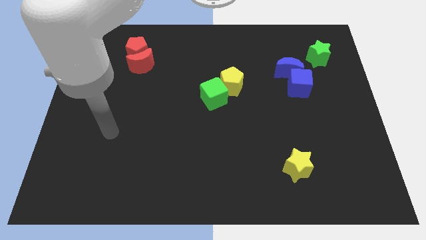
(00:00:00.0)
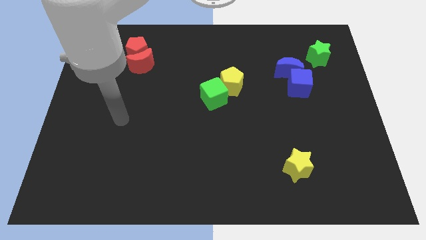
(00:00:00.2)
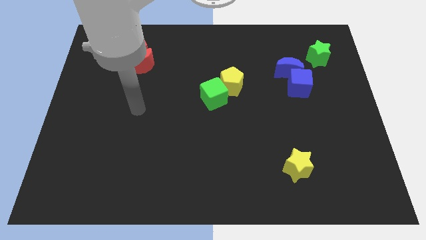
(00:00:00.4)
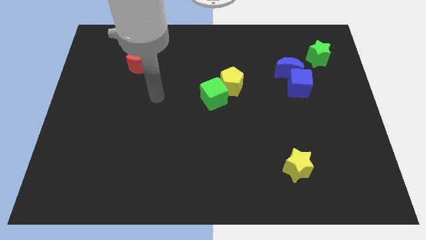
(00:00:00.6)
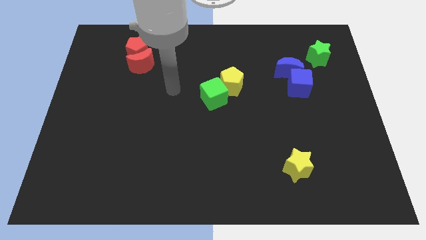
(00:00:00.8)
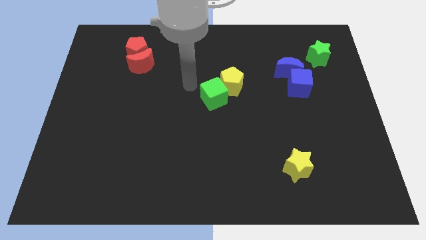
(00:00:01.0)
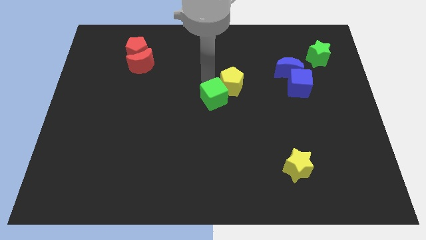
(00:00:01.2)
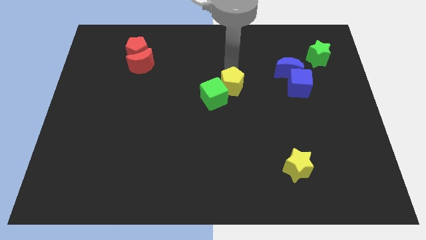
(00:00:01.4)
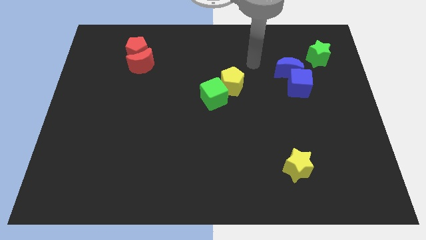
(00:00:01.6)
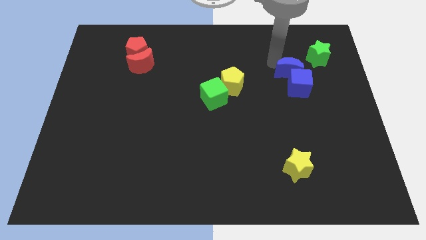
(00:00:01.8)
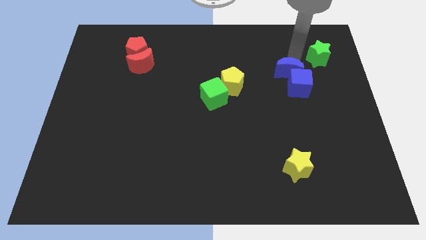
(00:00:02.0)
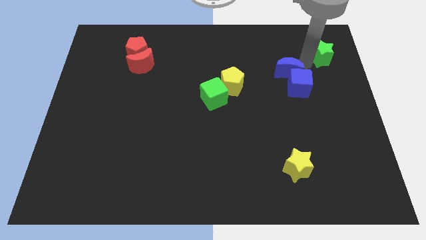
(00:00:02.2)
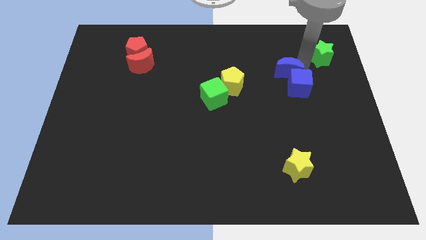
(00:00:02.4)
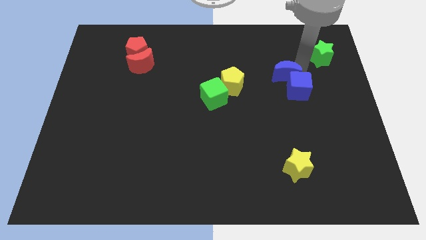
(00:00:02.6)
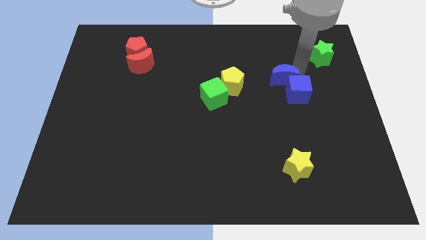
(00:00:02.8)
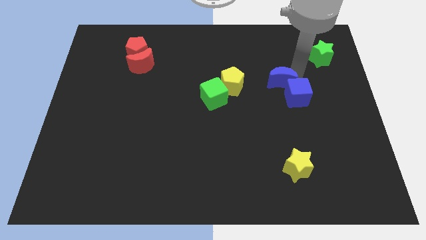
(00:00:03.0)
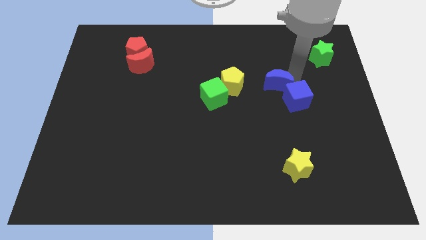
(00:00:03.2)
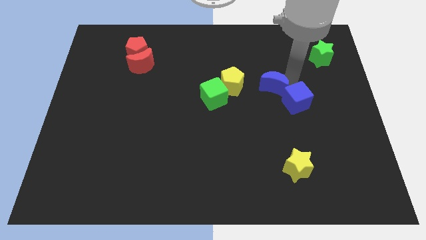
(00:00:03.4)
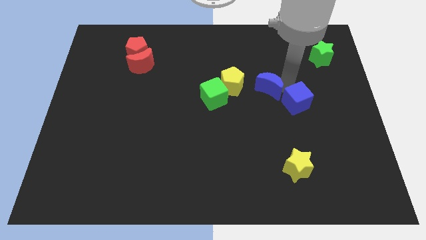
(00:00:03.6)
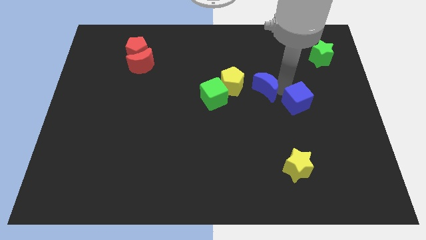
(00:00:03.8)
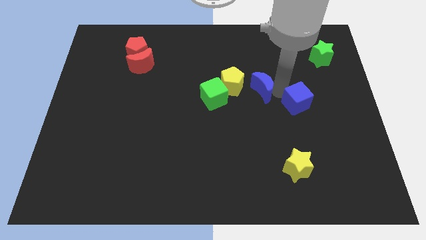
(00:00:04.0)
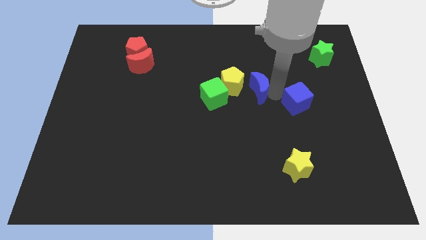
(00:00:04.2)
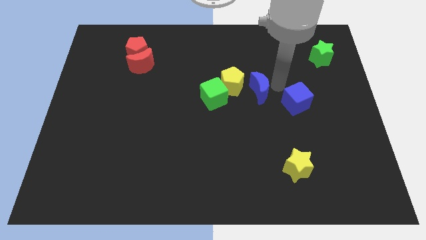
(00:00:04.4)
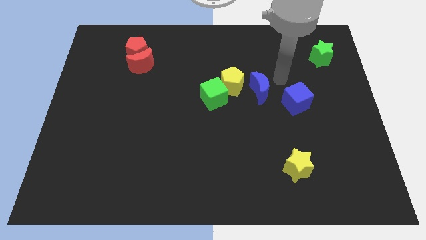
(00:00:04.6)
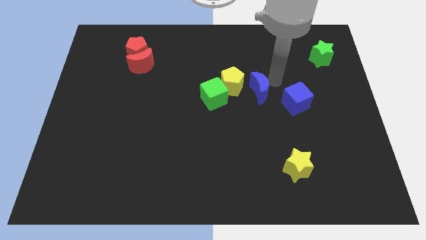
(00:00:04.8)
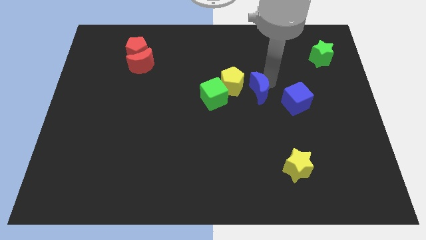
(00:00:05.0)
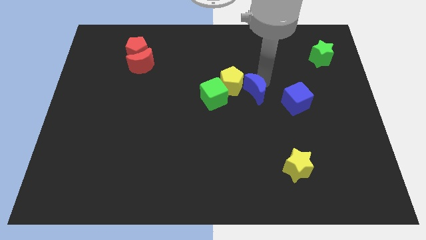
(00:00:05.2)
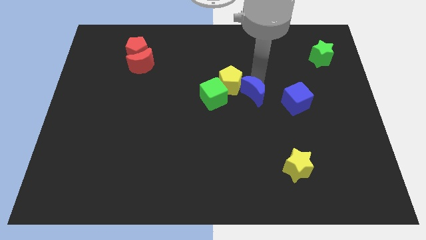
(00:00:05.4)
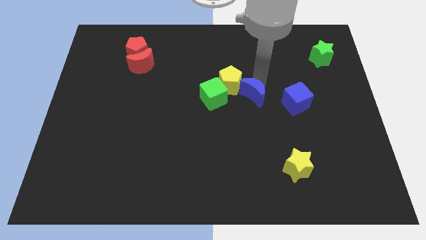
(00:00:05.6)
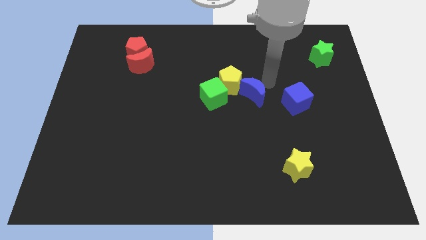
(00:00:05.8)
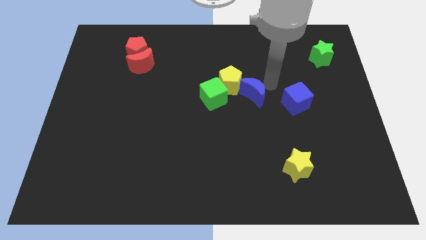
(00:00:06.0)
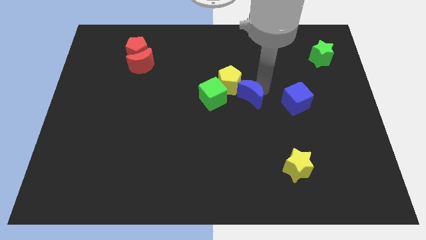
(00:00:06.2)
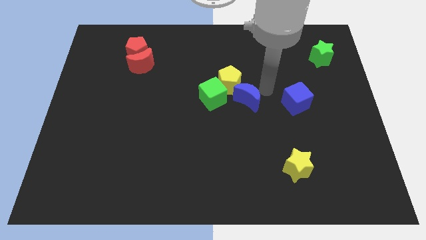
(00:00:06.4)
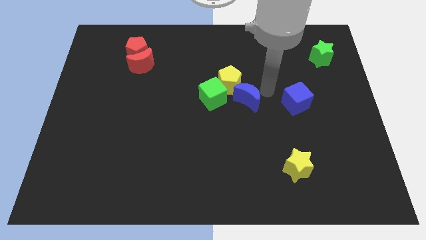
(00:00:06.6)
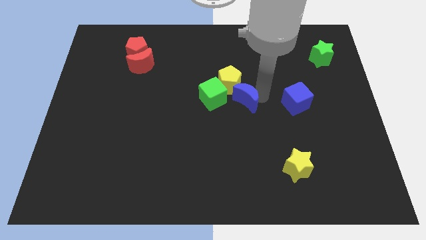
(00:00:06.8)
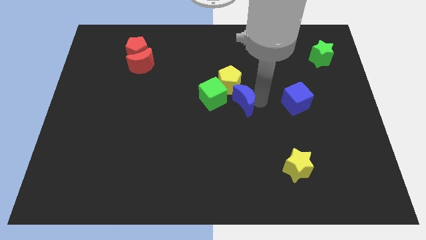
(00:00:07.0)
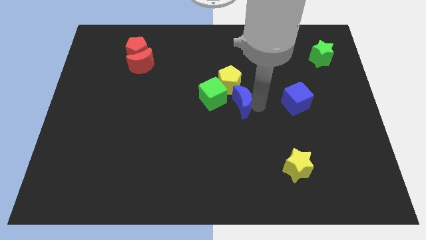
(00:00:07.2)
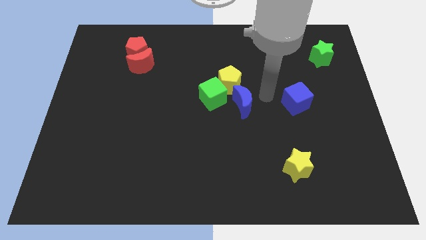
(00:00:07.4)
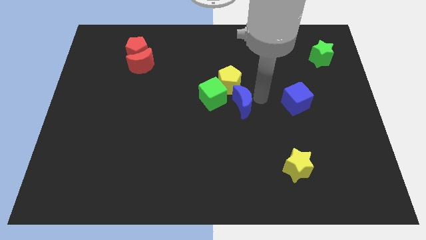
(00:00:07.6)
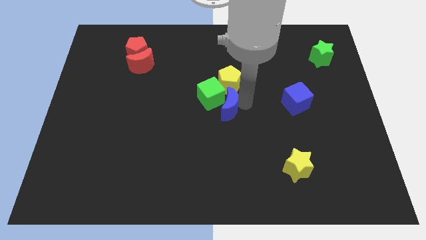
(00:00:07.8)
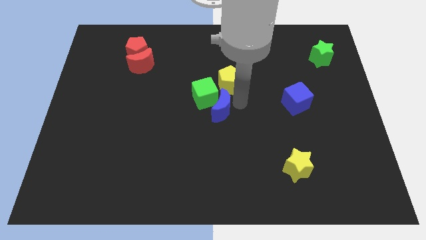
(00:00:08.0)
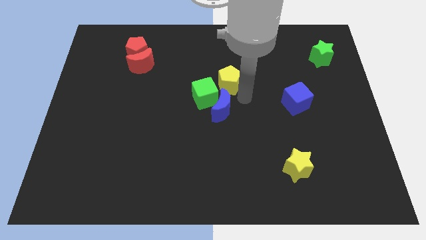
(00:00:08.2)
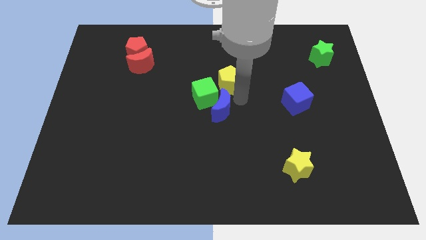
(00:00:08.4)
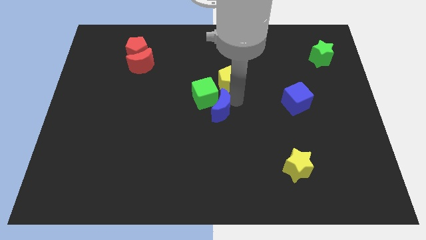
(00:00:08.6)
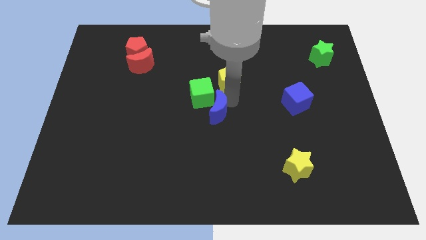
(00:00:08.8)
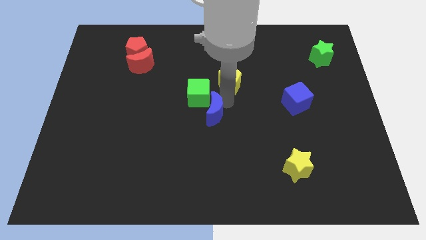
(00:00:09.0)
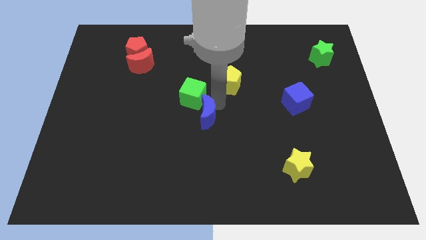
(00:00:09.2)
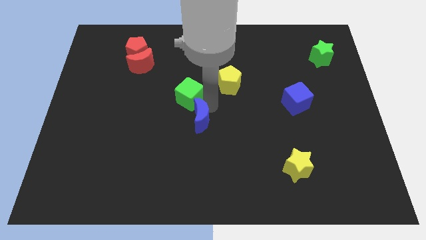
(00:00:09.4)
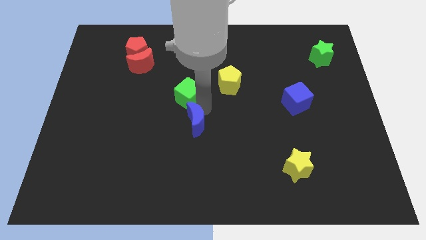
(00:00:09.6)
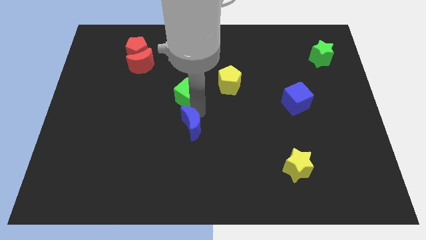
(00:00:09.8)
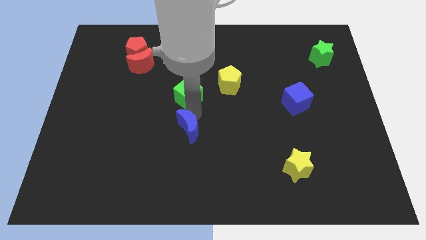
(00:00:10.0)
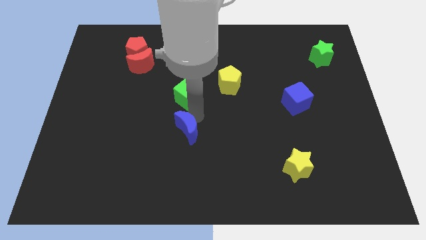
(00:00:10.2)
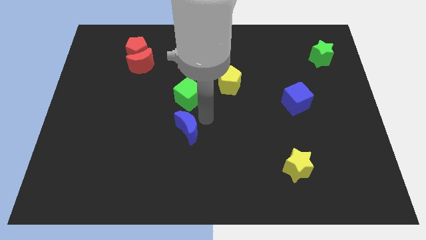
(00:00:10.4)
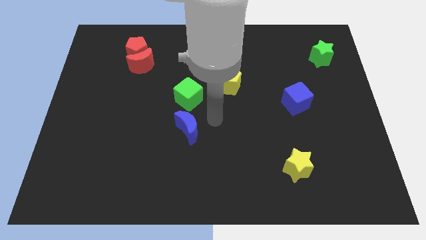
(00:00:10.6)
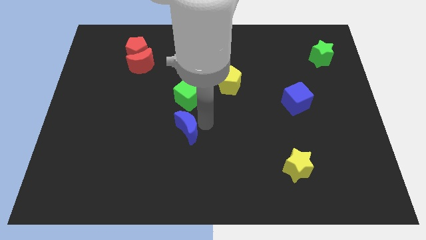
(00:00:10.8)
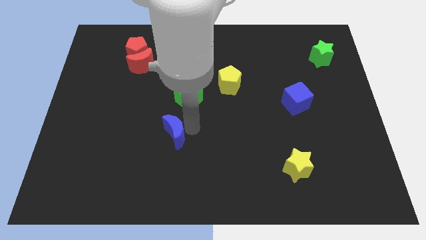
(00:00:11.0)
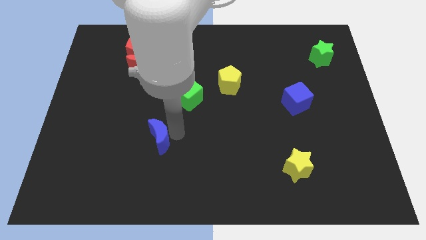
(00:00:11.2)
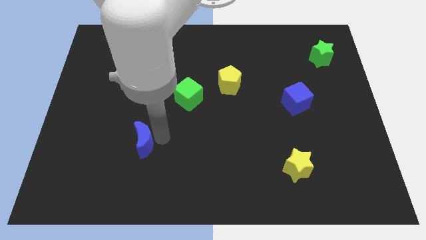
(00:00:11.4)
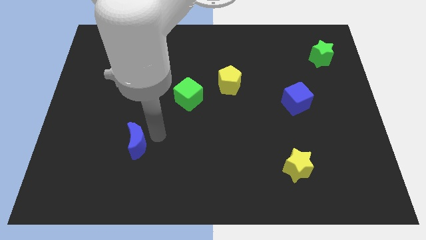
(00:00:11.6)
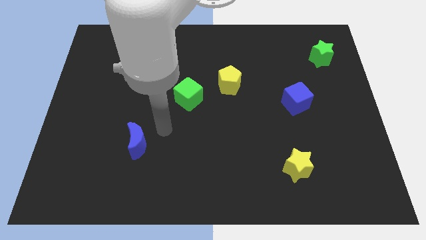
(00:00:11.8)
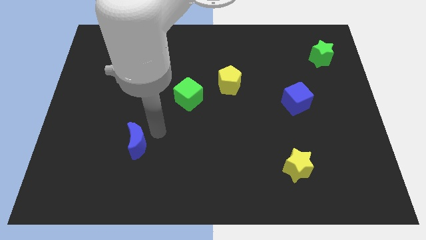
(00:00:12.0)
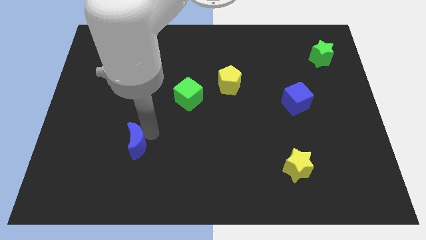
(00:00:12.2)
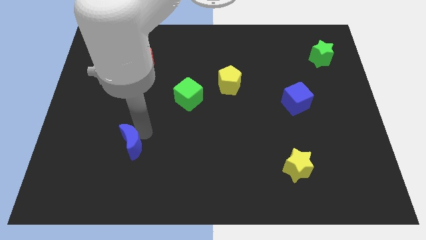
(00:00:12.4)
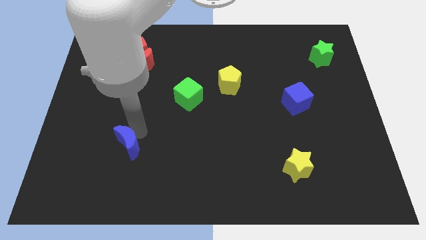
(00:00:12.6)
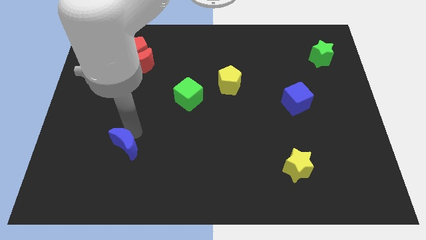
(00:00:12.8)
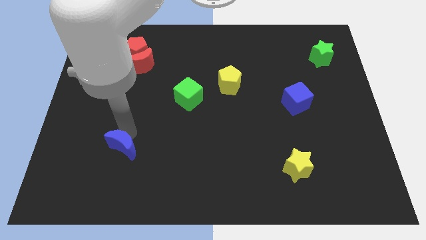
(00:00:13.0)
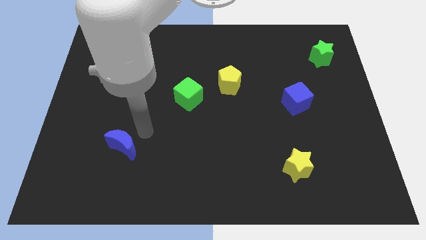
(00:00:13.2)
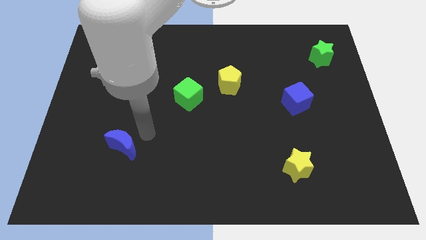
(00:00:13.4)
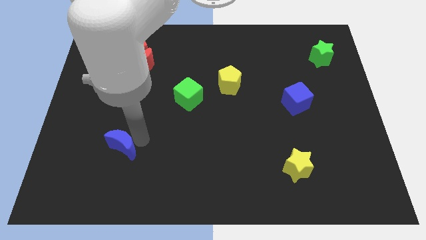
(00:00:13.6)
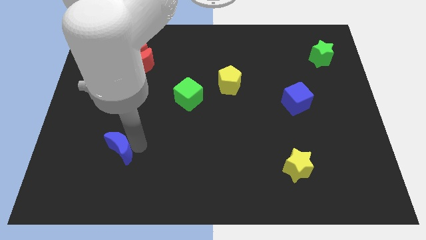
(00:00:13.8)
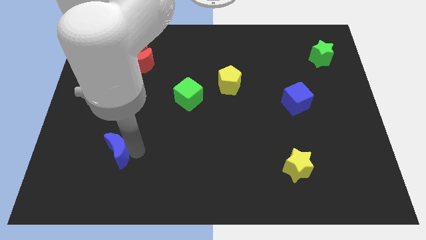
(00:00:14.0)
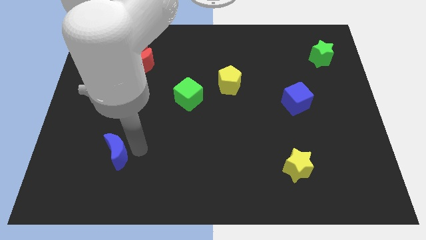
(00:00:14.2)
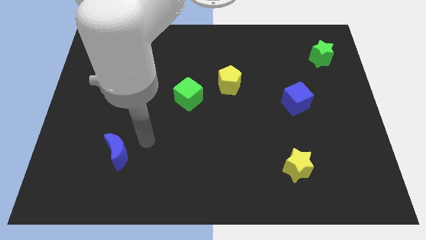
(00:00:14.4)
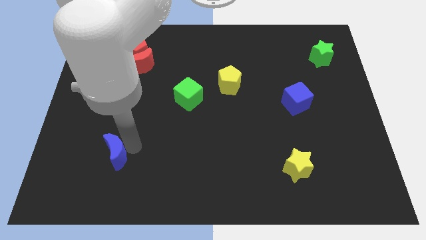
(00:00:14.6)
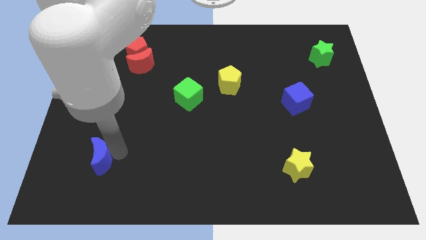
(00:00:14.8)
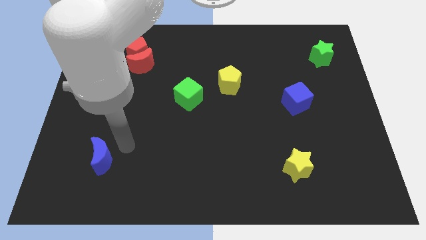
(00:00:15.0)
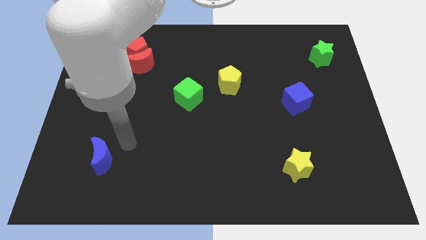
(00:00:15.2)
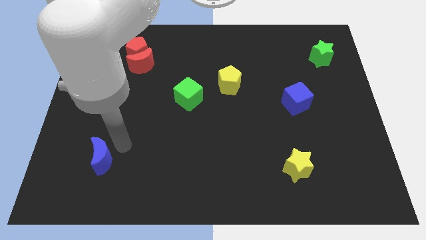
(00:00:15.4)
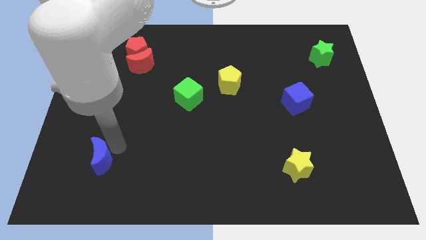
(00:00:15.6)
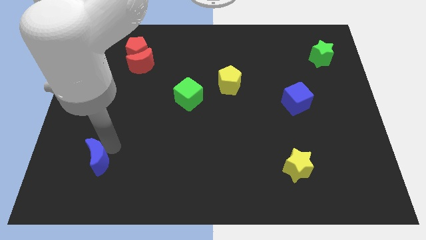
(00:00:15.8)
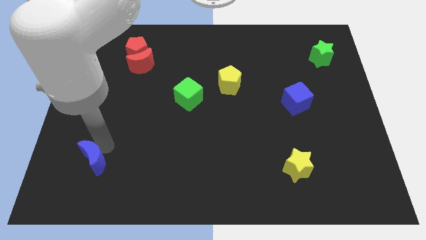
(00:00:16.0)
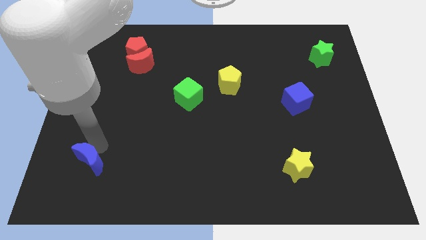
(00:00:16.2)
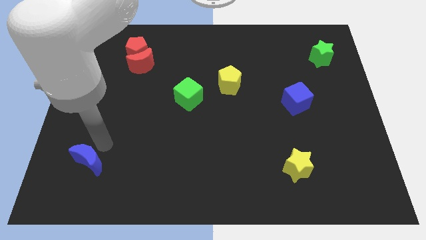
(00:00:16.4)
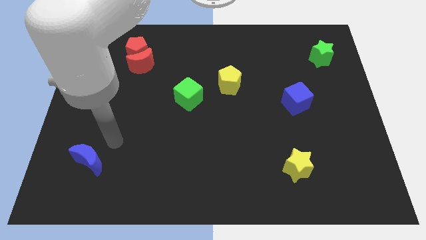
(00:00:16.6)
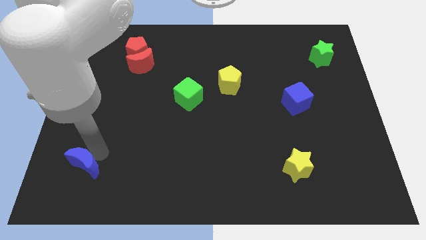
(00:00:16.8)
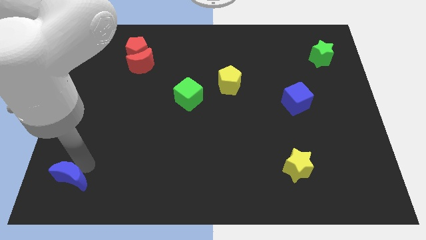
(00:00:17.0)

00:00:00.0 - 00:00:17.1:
put the blue moon to the bottom left of the board
